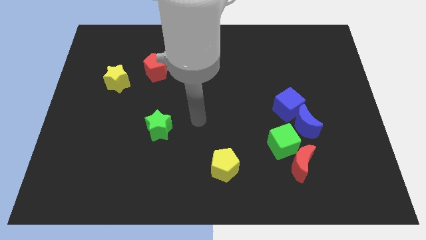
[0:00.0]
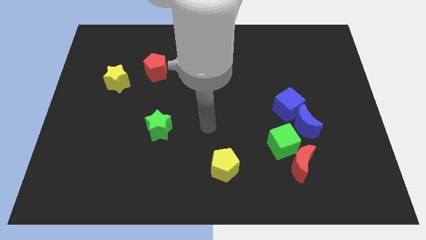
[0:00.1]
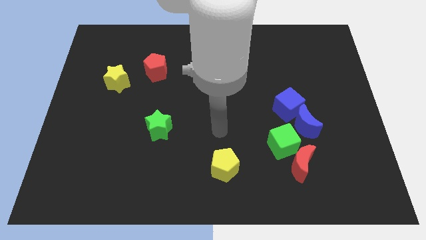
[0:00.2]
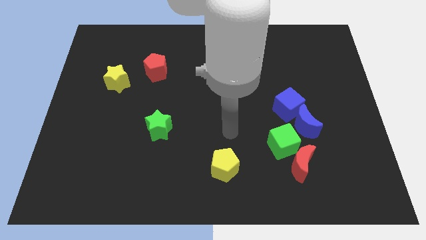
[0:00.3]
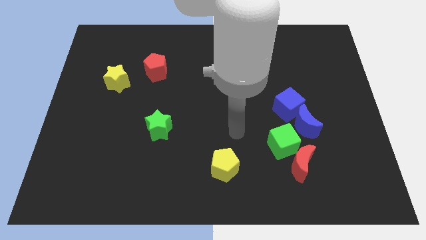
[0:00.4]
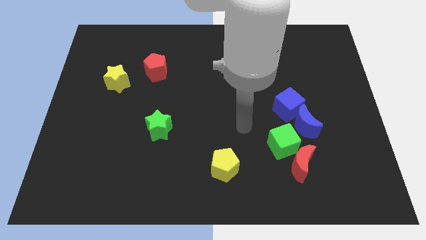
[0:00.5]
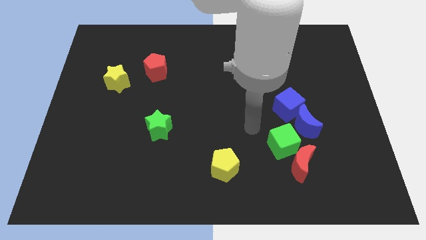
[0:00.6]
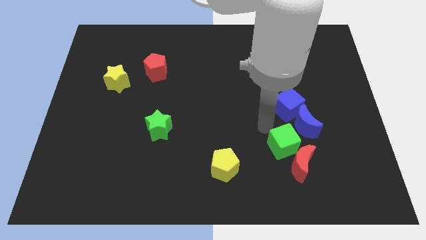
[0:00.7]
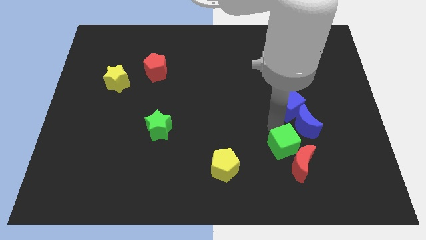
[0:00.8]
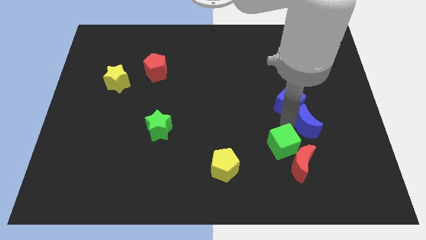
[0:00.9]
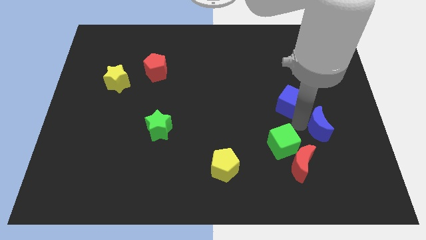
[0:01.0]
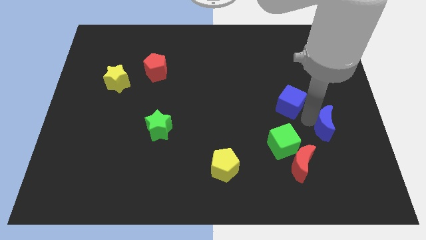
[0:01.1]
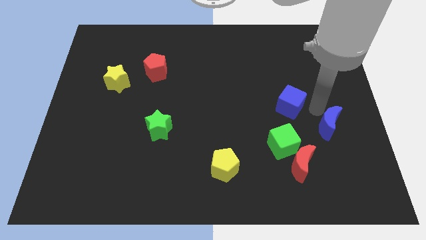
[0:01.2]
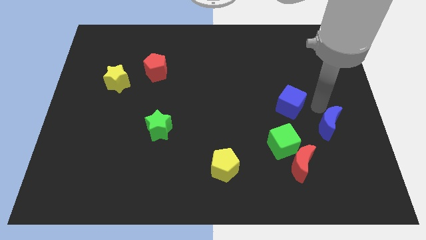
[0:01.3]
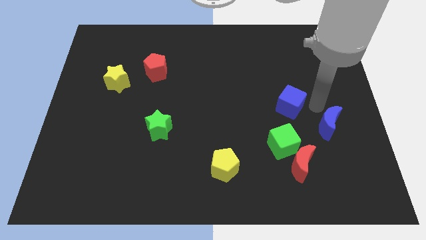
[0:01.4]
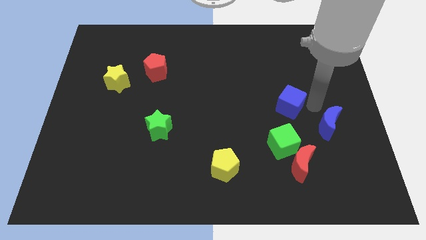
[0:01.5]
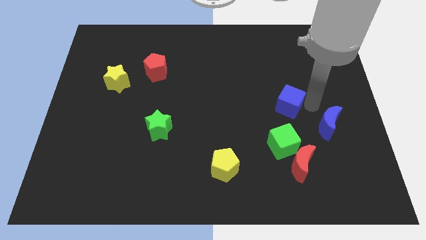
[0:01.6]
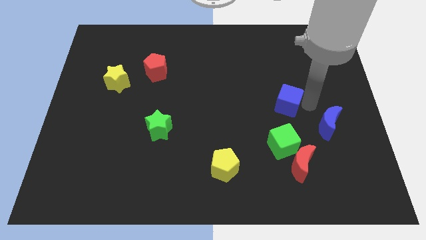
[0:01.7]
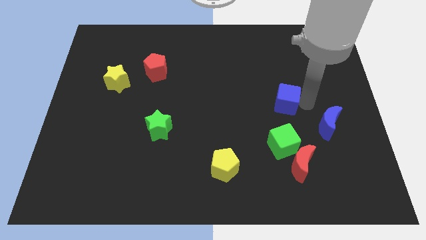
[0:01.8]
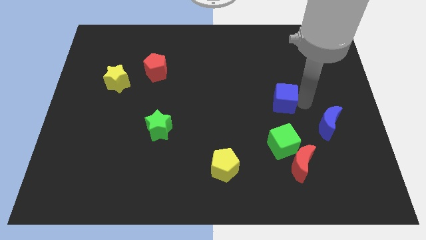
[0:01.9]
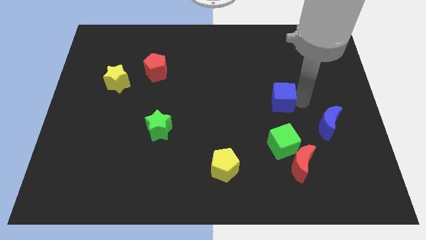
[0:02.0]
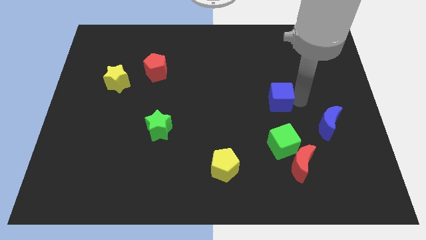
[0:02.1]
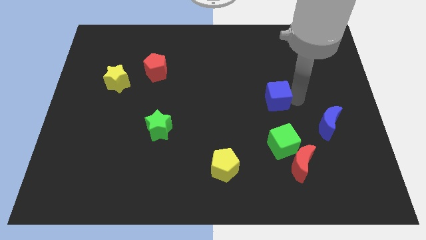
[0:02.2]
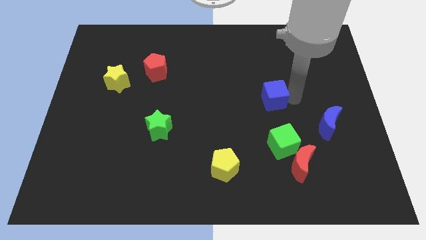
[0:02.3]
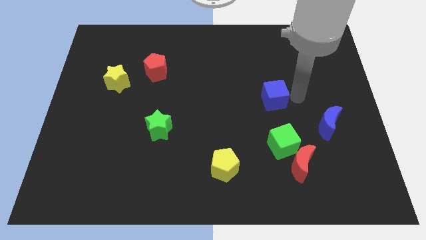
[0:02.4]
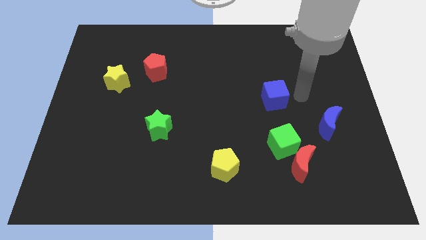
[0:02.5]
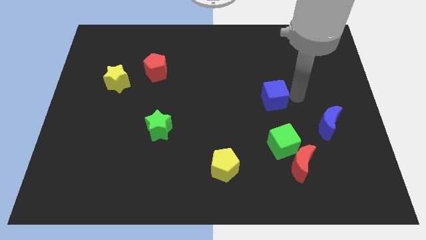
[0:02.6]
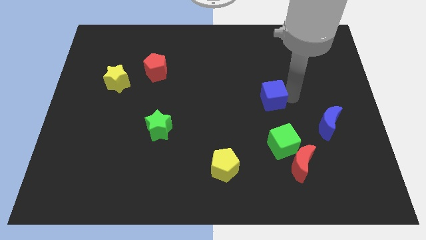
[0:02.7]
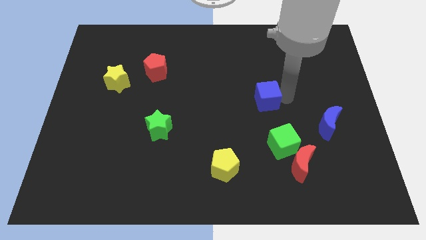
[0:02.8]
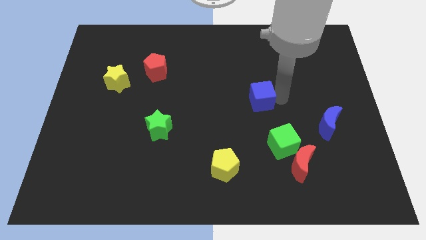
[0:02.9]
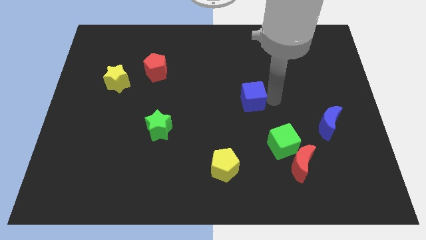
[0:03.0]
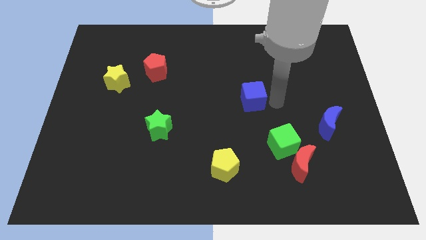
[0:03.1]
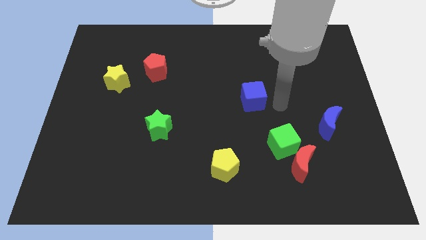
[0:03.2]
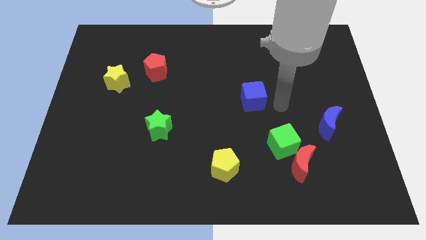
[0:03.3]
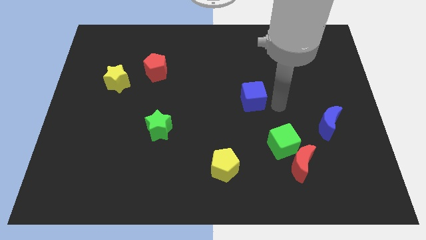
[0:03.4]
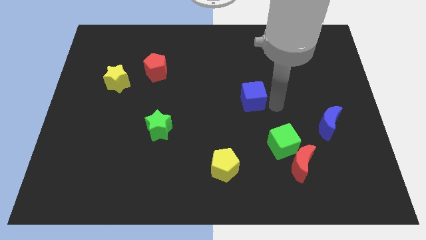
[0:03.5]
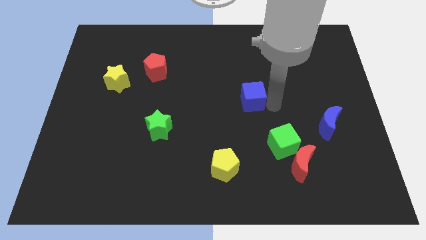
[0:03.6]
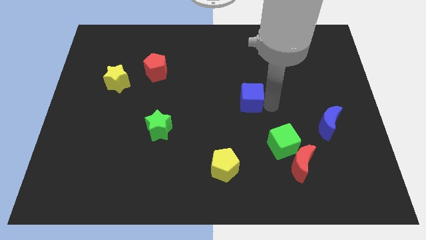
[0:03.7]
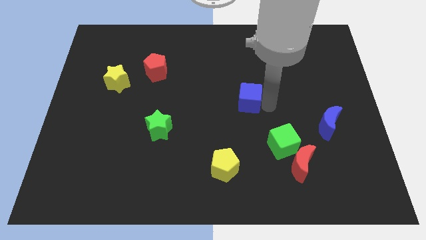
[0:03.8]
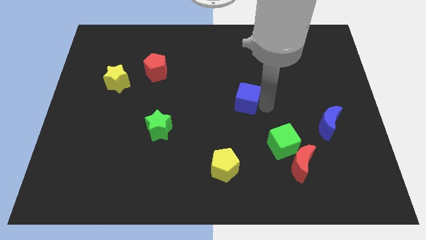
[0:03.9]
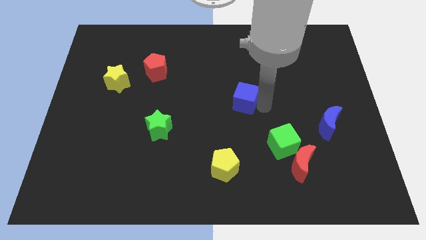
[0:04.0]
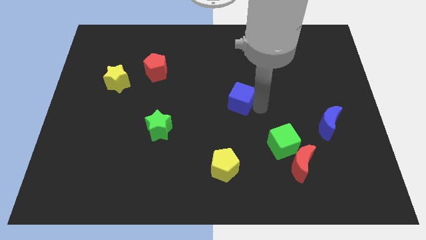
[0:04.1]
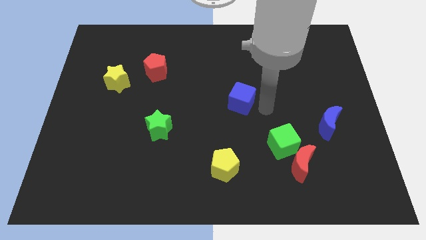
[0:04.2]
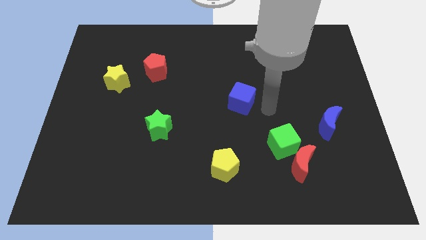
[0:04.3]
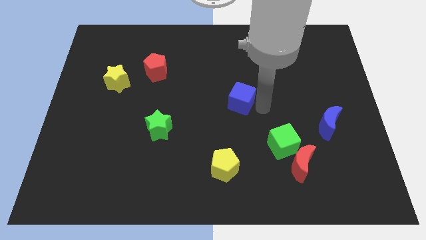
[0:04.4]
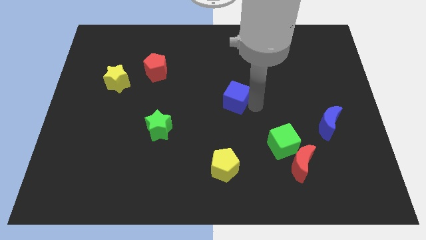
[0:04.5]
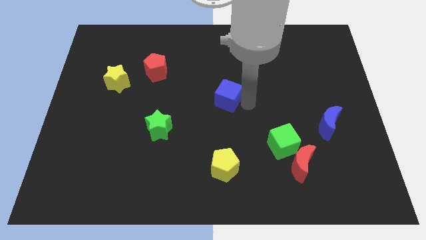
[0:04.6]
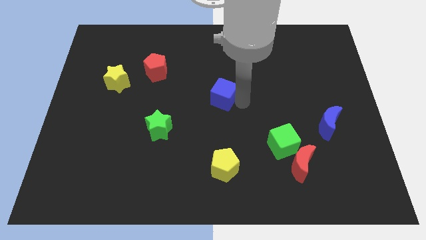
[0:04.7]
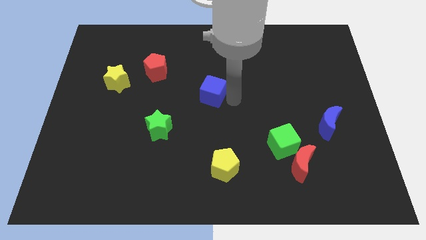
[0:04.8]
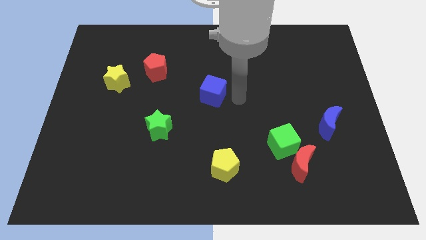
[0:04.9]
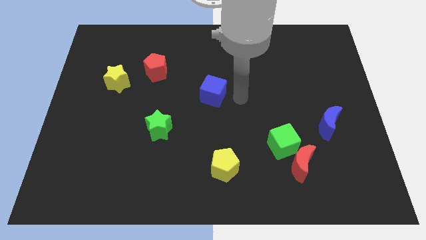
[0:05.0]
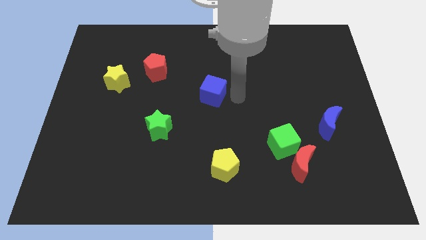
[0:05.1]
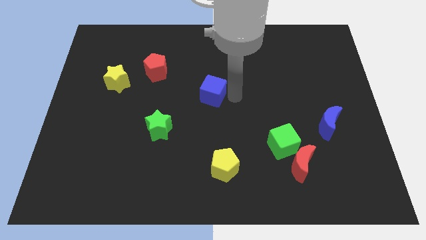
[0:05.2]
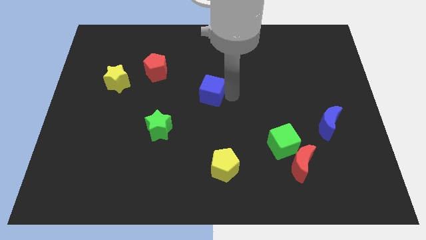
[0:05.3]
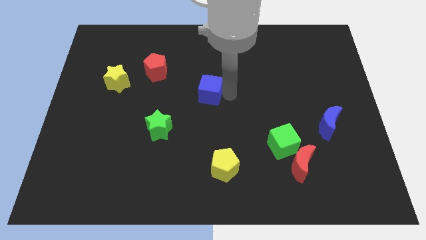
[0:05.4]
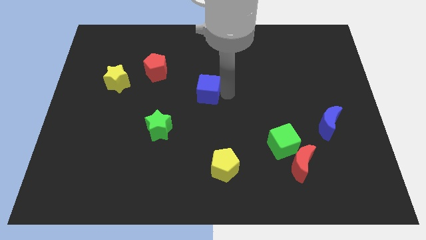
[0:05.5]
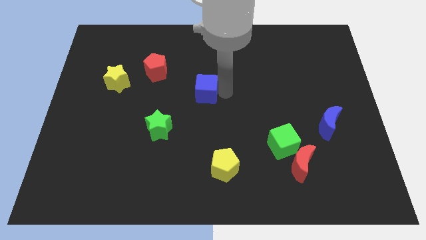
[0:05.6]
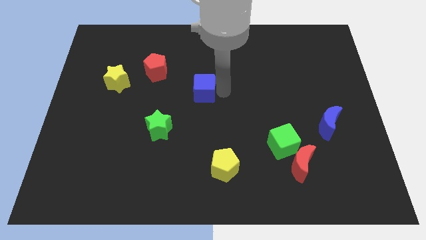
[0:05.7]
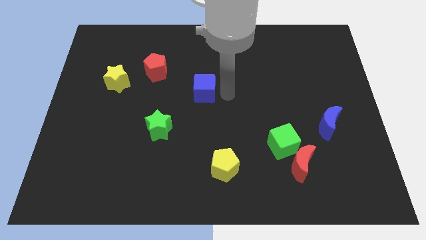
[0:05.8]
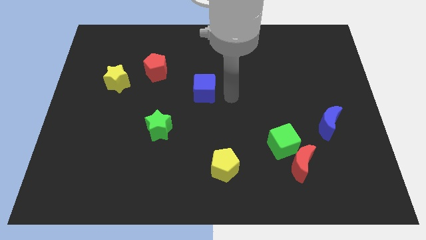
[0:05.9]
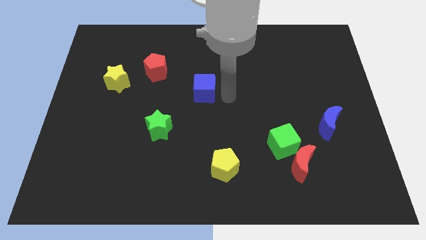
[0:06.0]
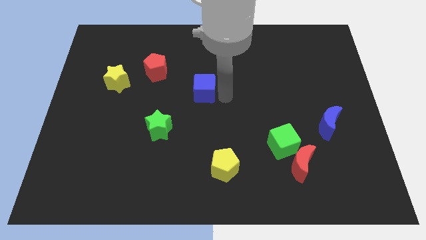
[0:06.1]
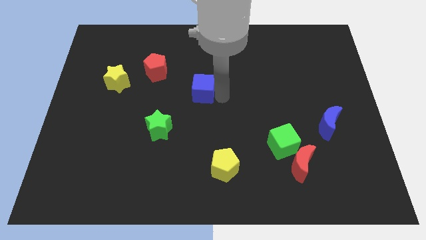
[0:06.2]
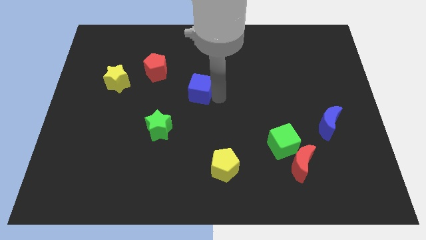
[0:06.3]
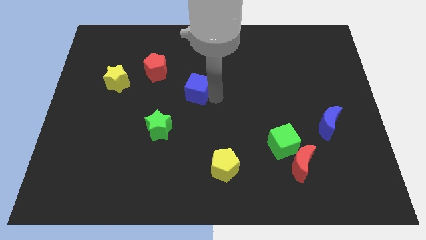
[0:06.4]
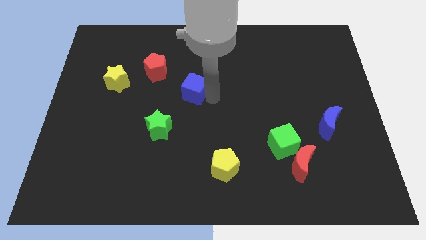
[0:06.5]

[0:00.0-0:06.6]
slide the blue cube to the bottom right of the red pentagon

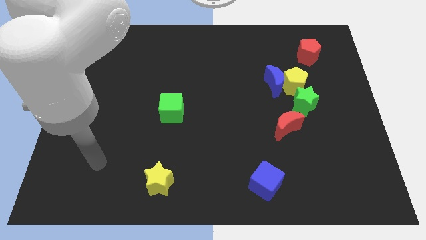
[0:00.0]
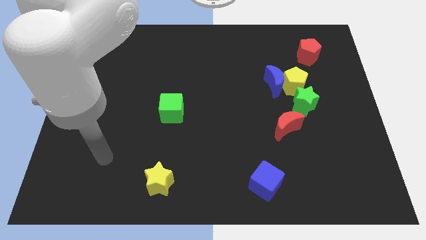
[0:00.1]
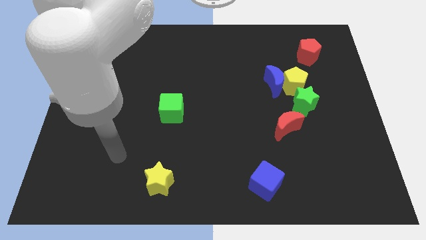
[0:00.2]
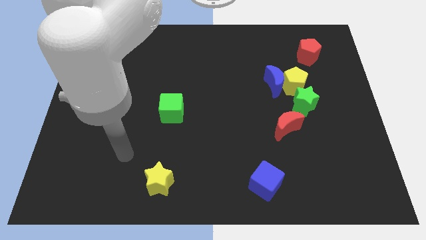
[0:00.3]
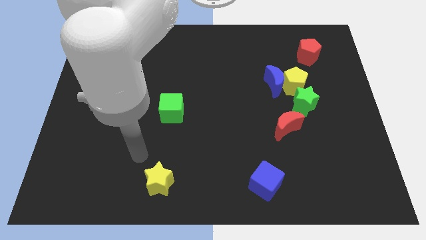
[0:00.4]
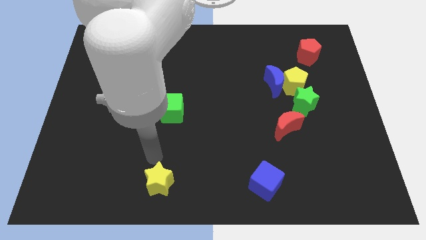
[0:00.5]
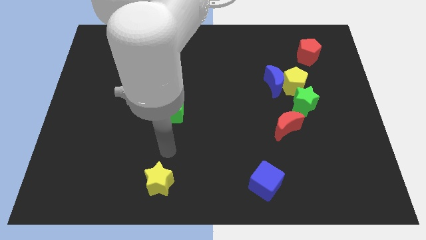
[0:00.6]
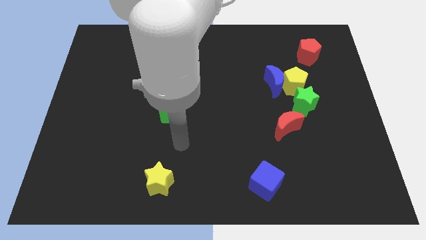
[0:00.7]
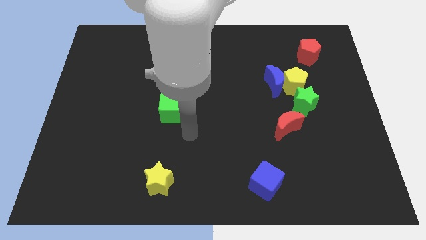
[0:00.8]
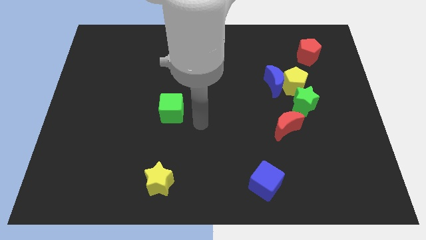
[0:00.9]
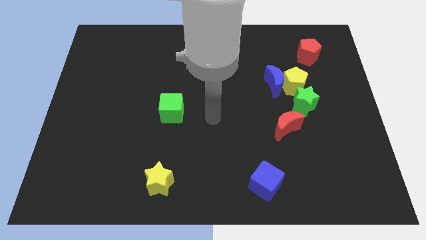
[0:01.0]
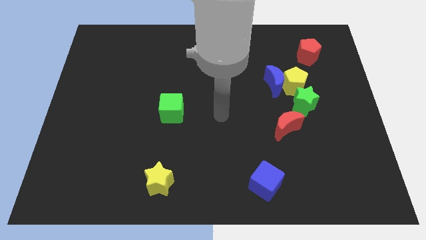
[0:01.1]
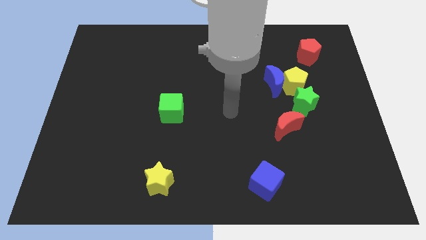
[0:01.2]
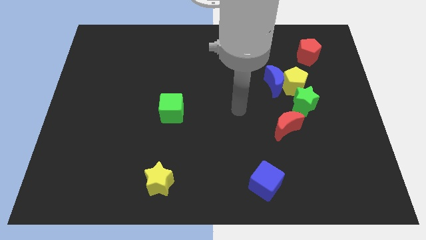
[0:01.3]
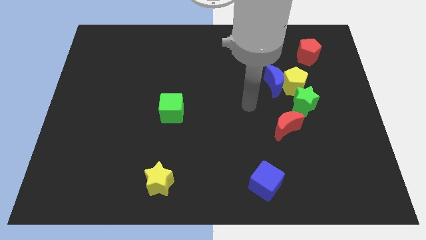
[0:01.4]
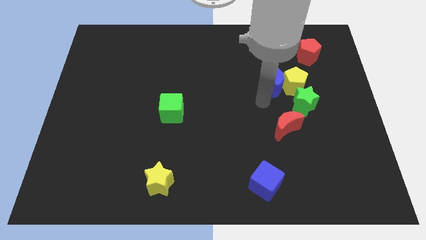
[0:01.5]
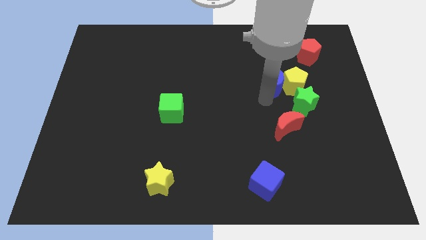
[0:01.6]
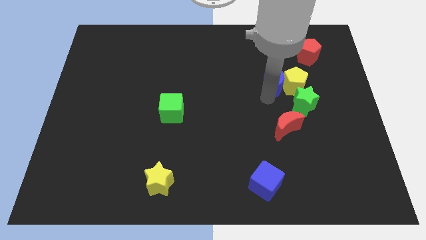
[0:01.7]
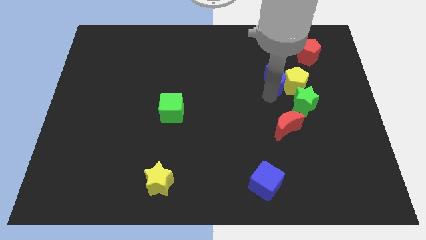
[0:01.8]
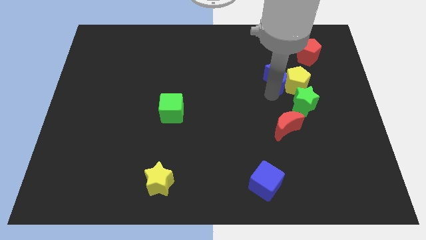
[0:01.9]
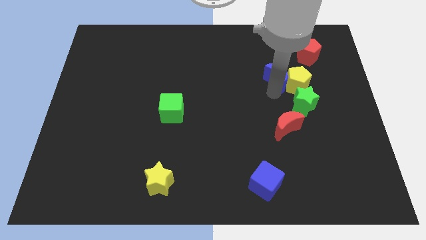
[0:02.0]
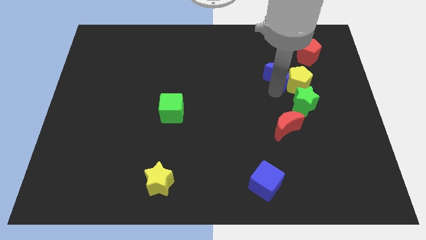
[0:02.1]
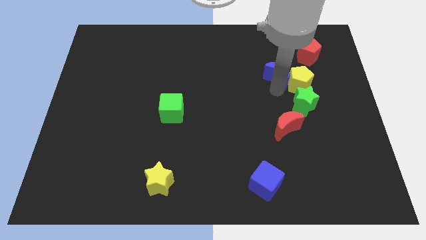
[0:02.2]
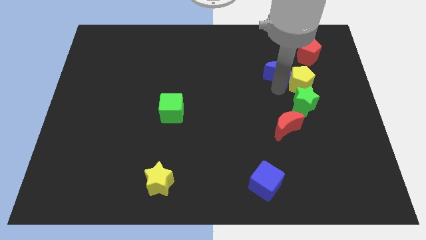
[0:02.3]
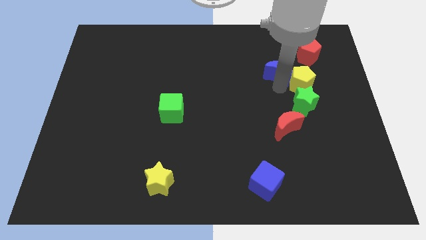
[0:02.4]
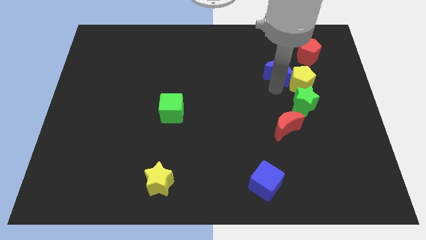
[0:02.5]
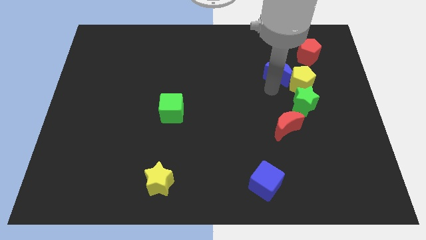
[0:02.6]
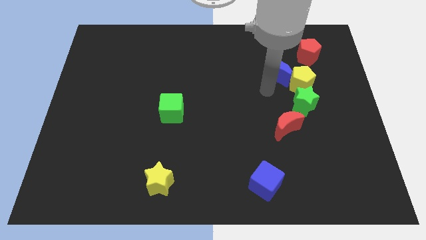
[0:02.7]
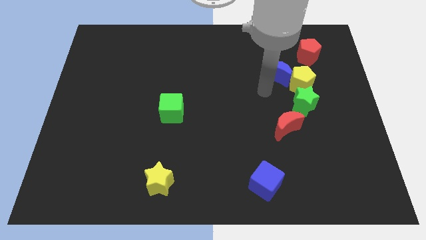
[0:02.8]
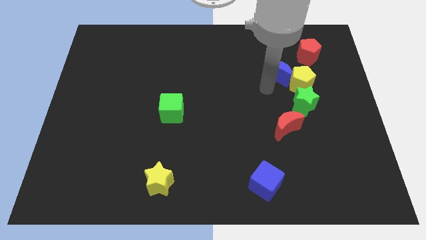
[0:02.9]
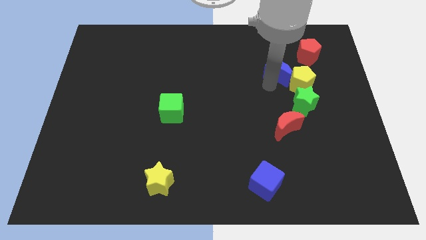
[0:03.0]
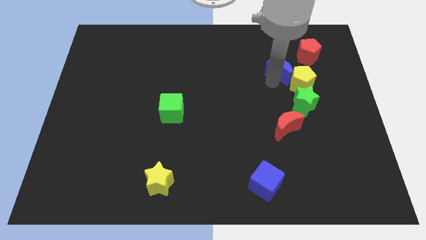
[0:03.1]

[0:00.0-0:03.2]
move the blue moon to the top side of the green star
